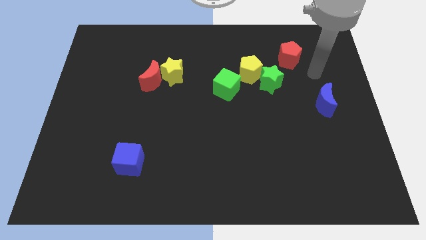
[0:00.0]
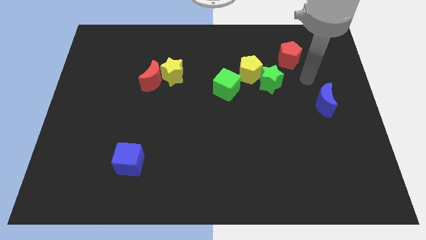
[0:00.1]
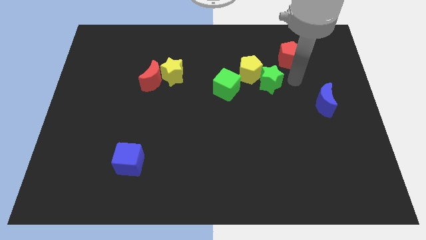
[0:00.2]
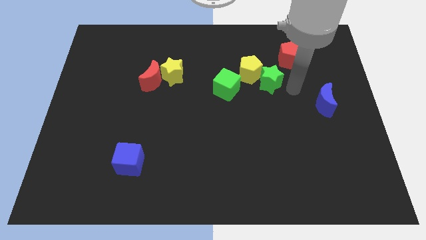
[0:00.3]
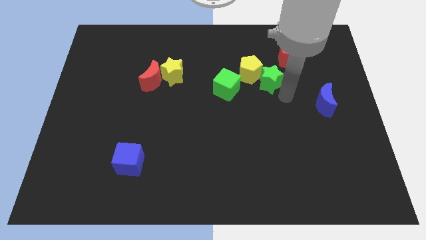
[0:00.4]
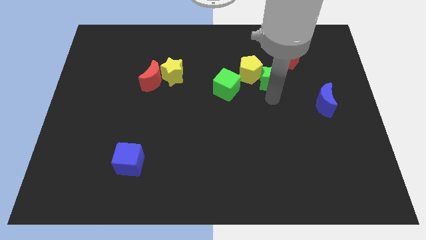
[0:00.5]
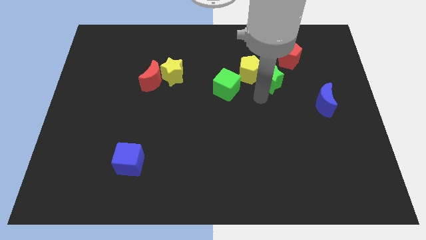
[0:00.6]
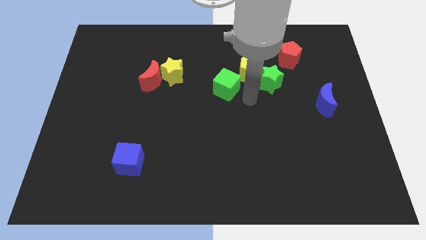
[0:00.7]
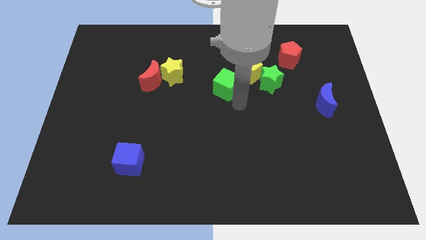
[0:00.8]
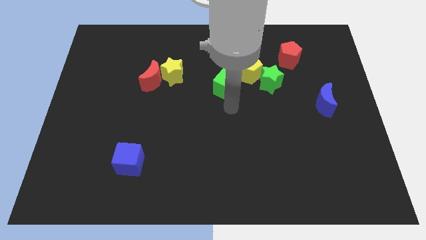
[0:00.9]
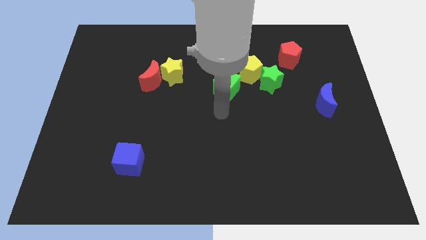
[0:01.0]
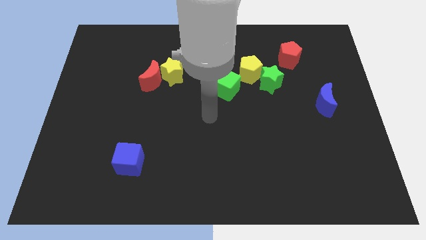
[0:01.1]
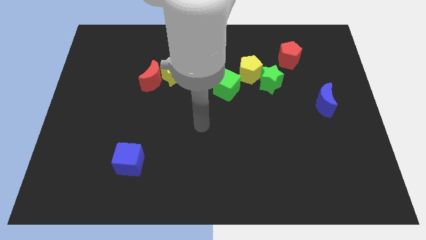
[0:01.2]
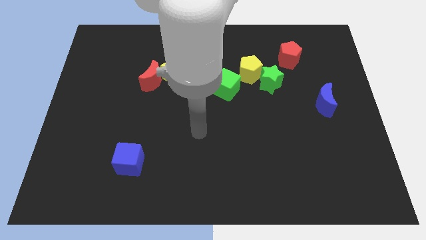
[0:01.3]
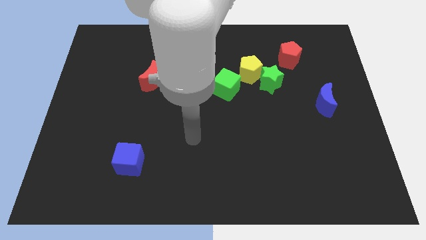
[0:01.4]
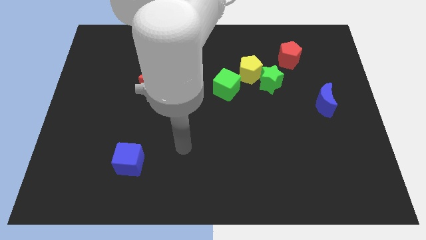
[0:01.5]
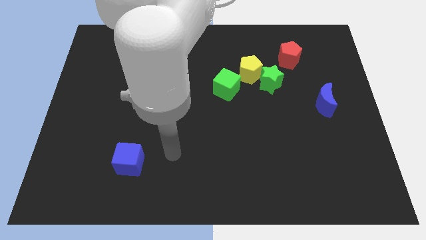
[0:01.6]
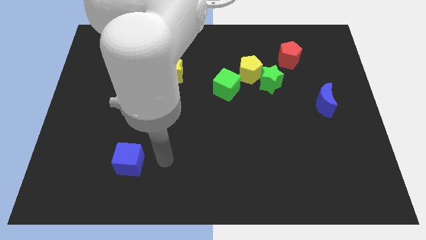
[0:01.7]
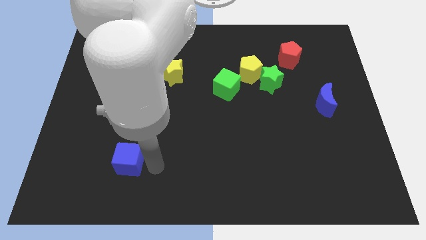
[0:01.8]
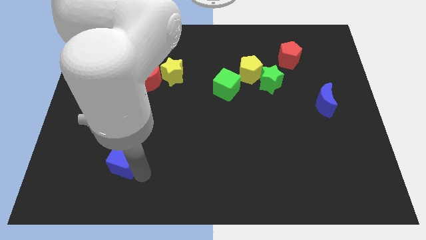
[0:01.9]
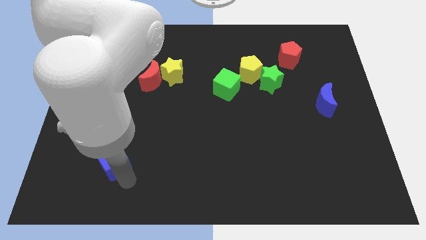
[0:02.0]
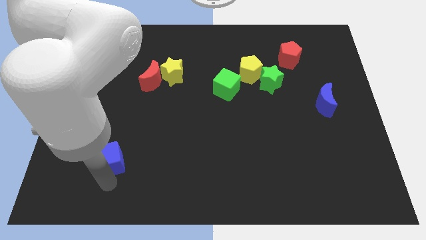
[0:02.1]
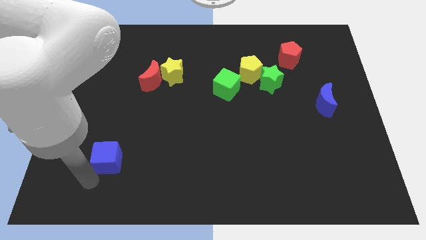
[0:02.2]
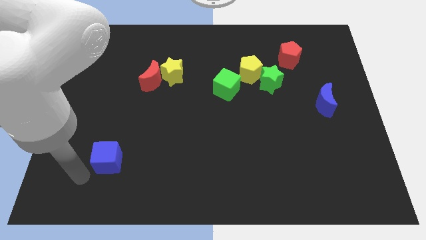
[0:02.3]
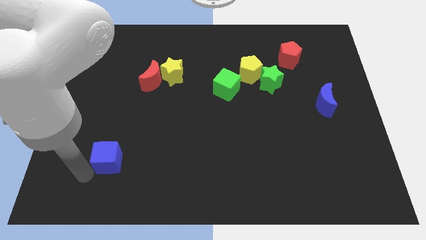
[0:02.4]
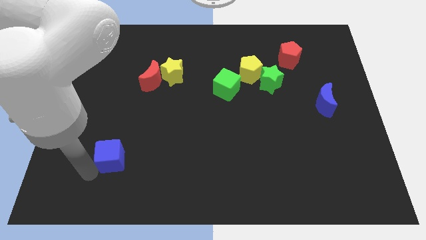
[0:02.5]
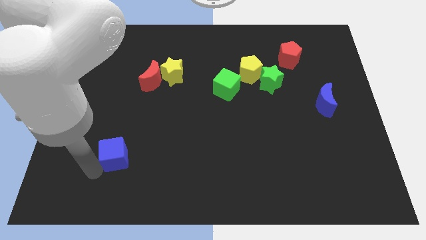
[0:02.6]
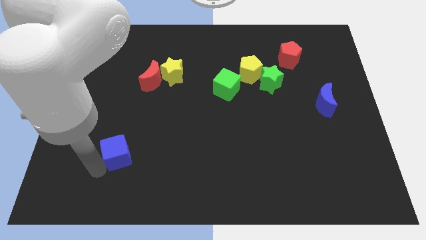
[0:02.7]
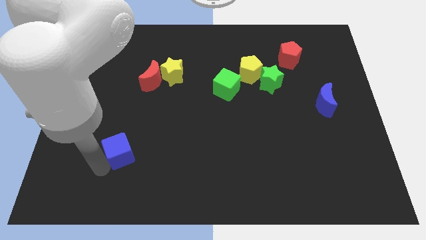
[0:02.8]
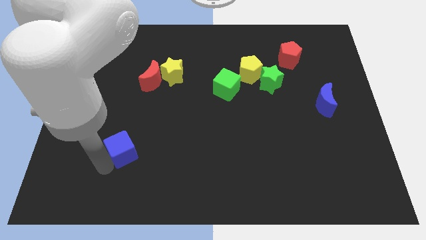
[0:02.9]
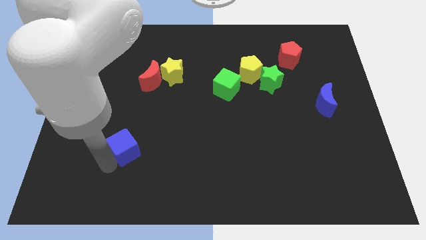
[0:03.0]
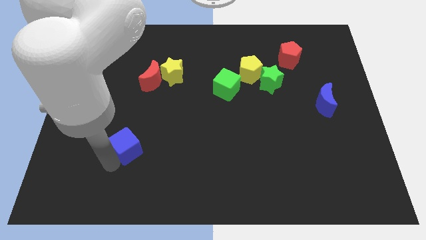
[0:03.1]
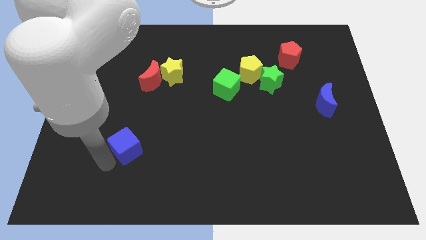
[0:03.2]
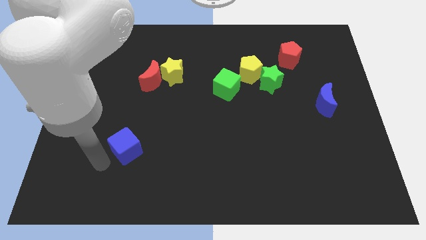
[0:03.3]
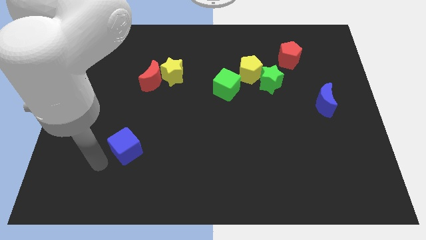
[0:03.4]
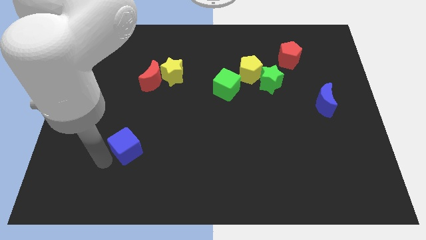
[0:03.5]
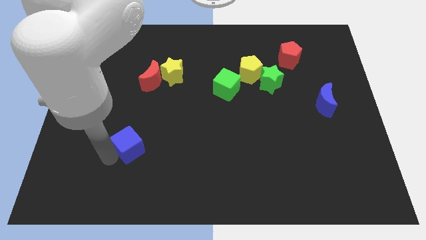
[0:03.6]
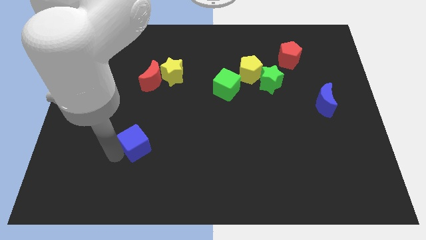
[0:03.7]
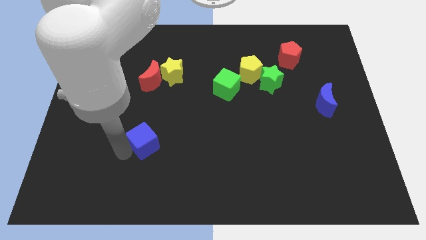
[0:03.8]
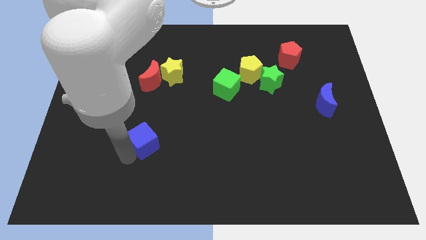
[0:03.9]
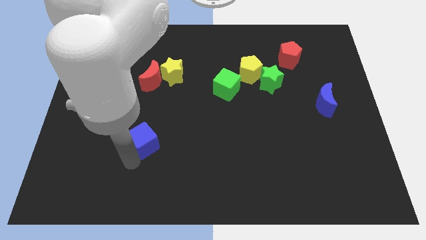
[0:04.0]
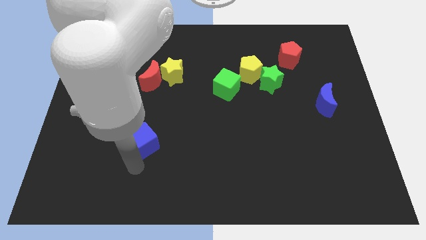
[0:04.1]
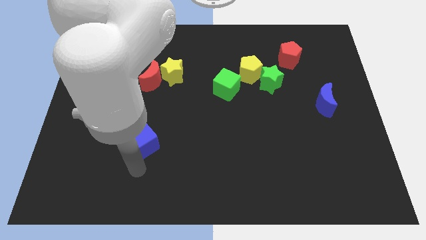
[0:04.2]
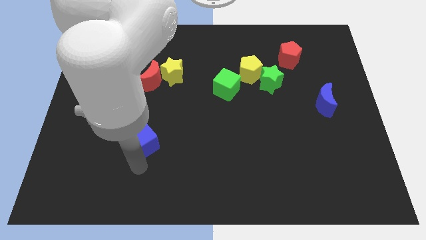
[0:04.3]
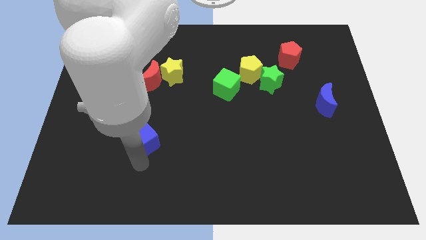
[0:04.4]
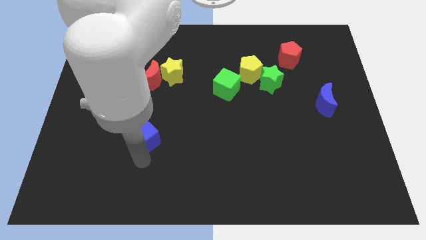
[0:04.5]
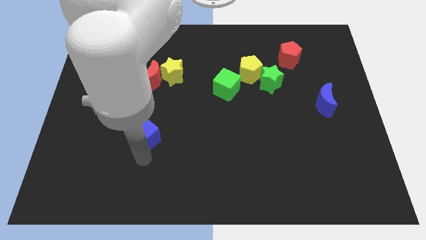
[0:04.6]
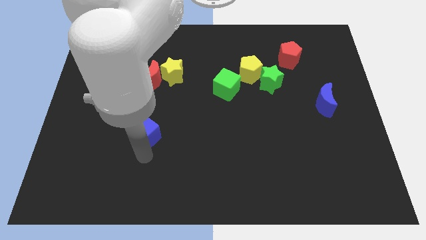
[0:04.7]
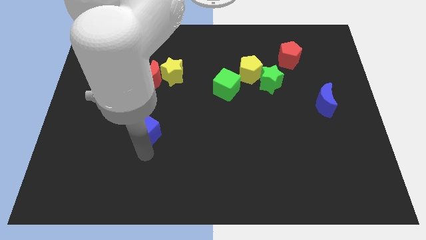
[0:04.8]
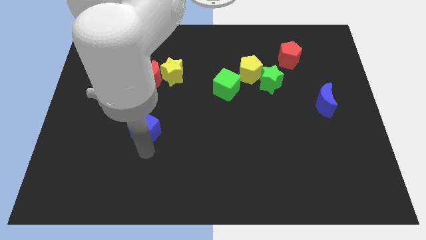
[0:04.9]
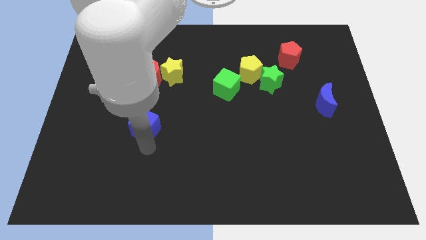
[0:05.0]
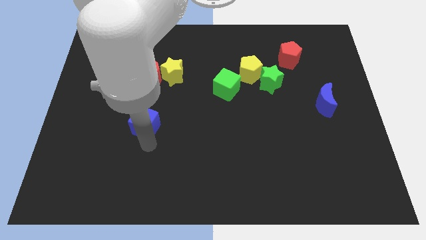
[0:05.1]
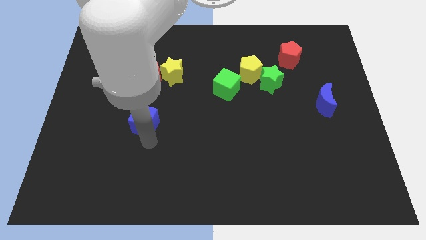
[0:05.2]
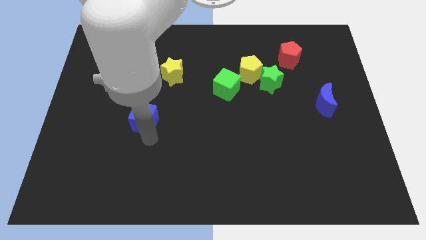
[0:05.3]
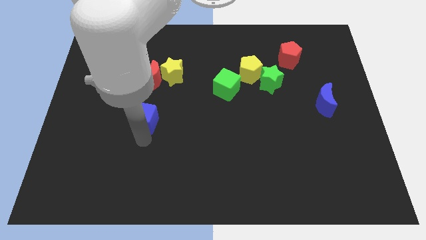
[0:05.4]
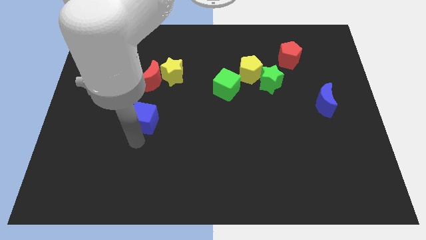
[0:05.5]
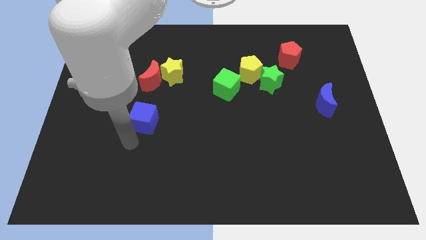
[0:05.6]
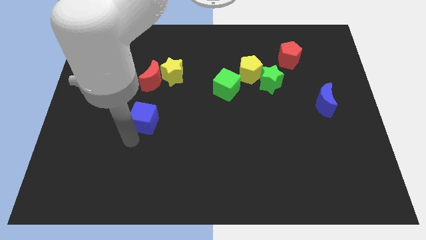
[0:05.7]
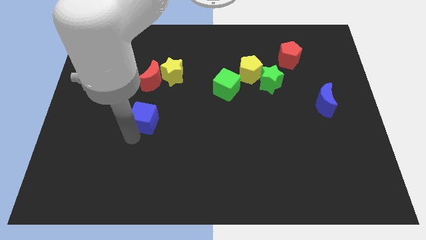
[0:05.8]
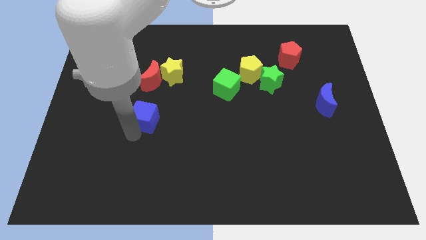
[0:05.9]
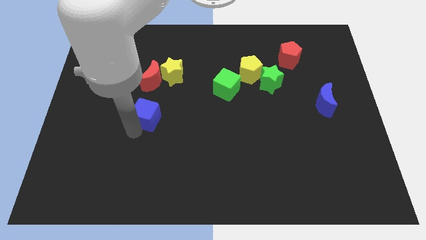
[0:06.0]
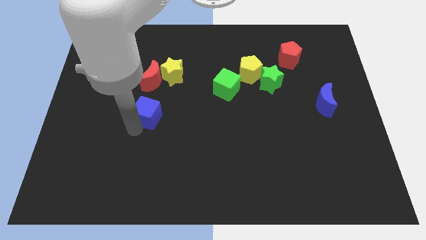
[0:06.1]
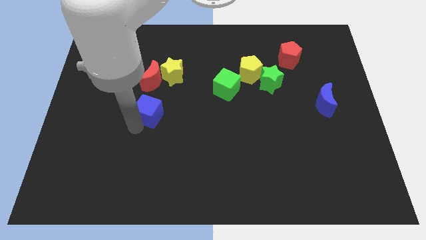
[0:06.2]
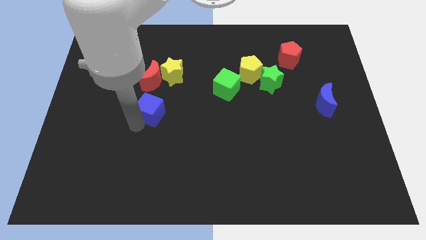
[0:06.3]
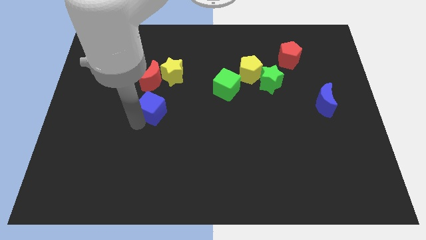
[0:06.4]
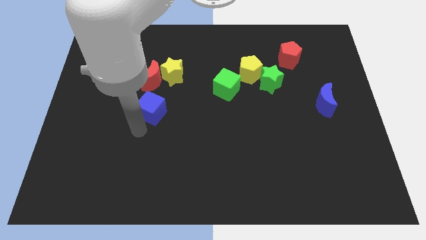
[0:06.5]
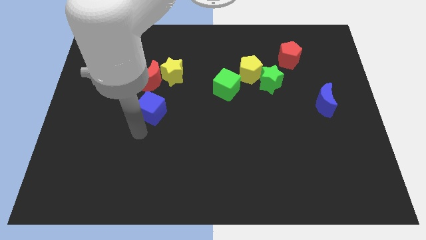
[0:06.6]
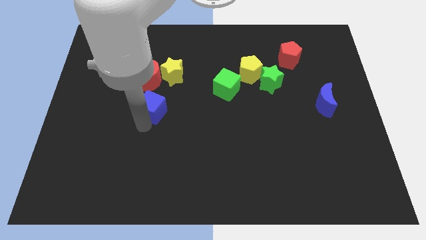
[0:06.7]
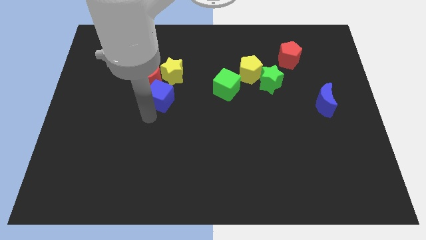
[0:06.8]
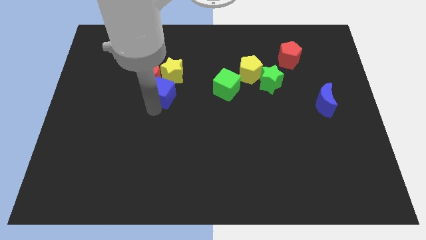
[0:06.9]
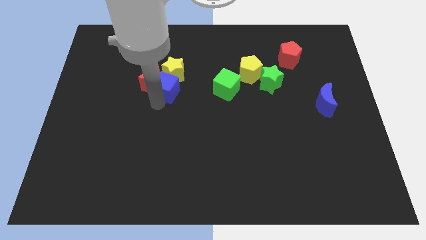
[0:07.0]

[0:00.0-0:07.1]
put the blue cube to the yellow star
